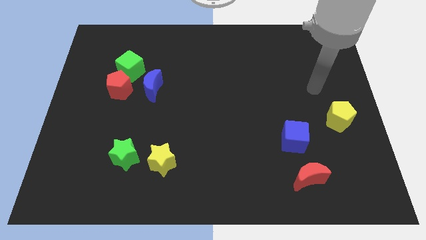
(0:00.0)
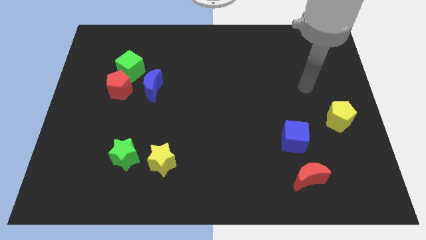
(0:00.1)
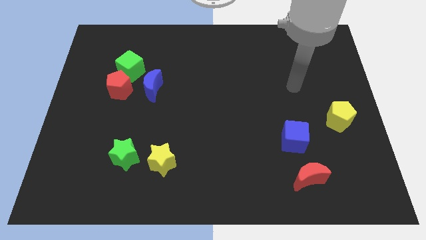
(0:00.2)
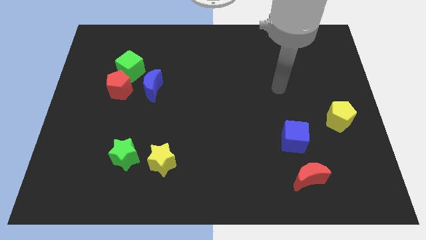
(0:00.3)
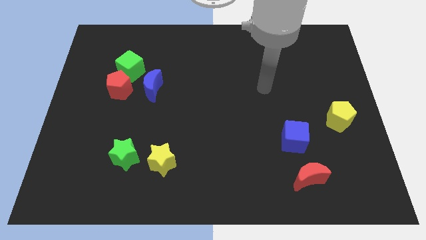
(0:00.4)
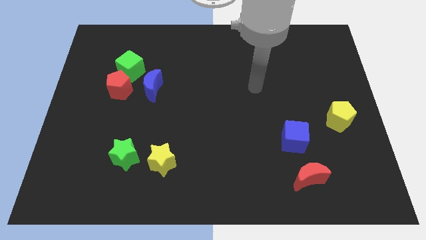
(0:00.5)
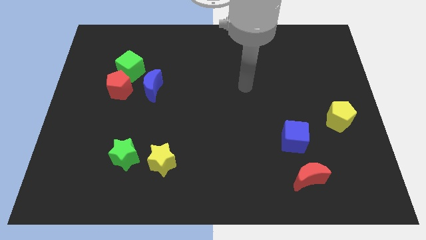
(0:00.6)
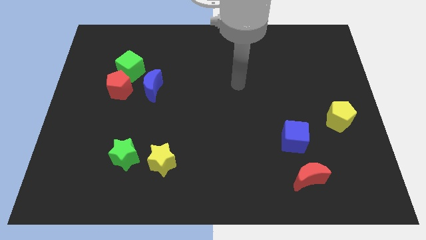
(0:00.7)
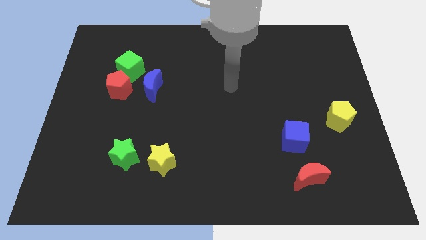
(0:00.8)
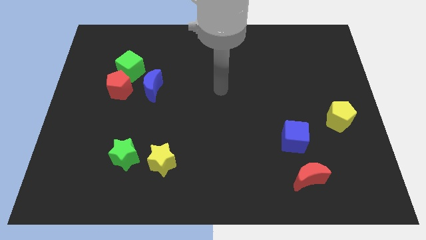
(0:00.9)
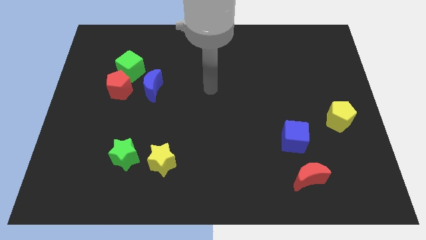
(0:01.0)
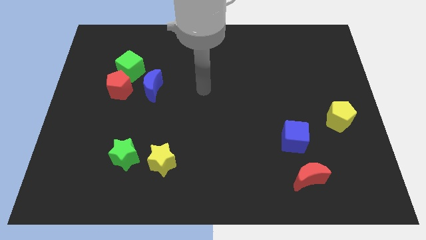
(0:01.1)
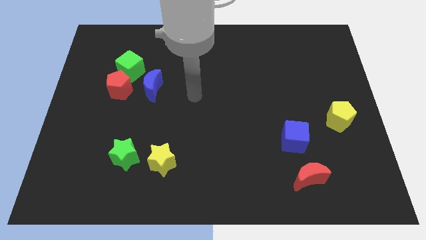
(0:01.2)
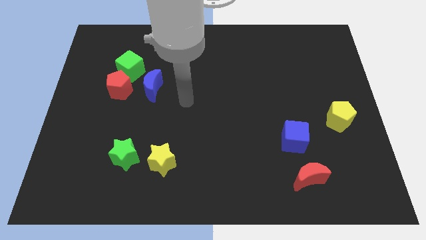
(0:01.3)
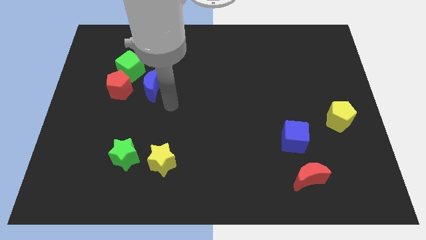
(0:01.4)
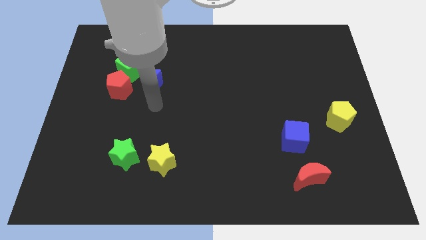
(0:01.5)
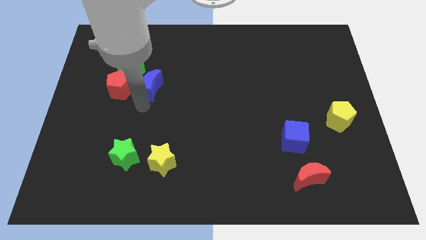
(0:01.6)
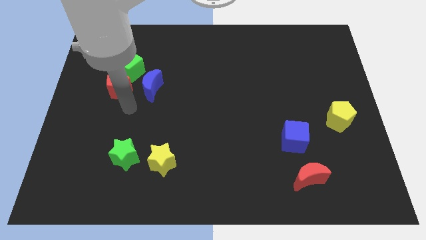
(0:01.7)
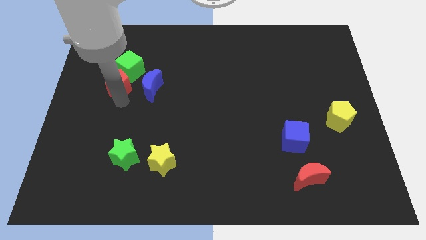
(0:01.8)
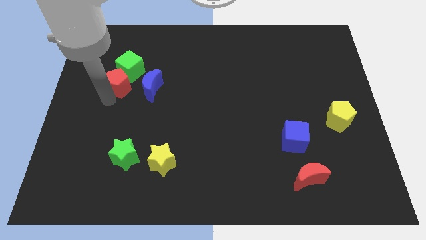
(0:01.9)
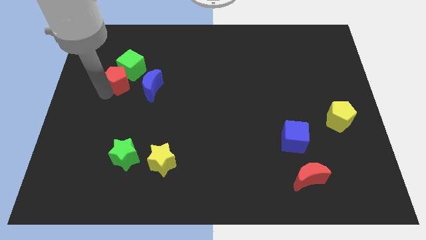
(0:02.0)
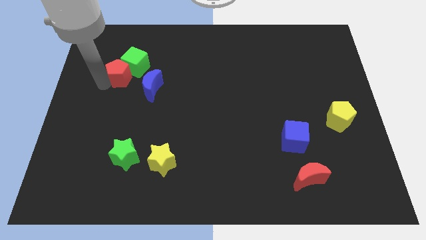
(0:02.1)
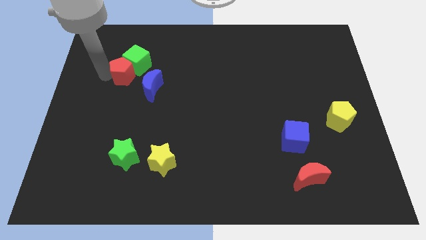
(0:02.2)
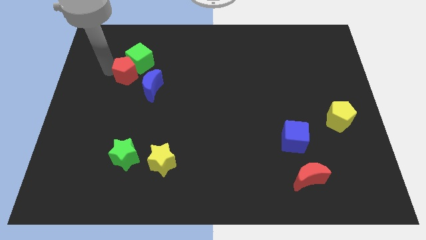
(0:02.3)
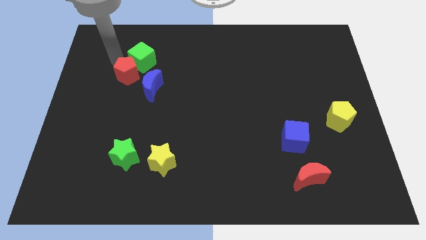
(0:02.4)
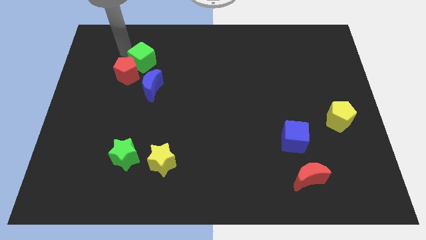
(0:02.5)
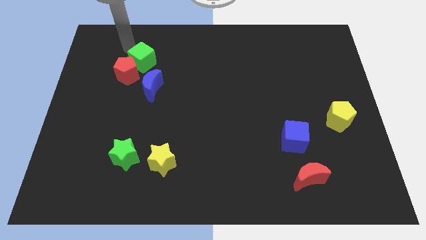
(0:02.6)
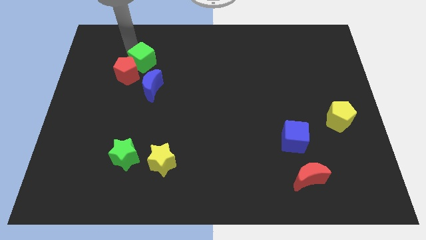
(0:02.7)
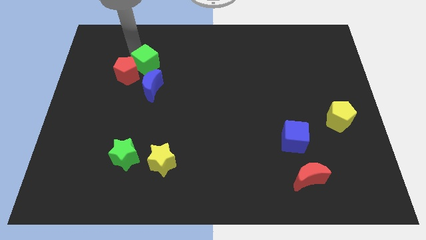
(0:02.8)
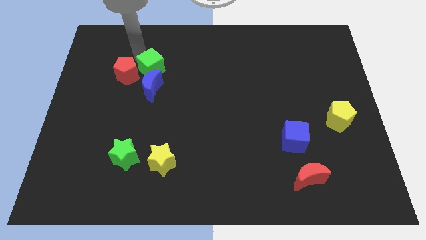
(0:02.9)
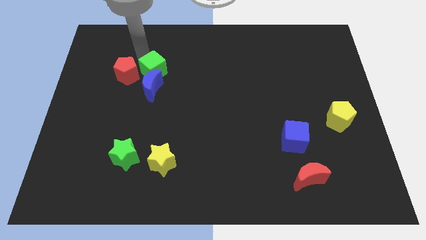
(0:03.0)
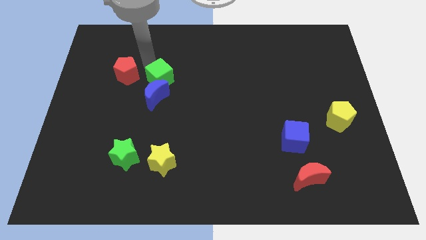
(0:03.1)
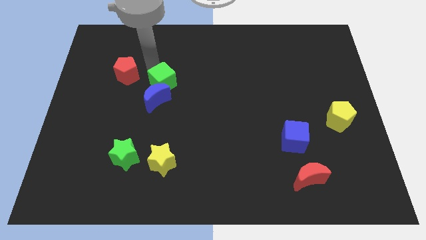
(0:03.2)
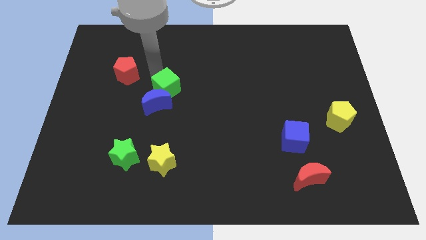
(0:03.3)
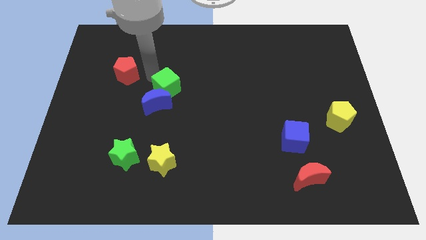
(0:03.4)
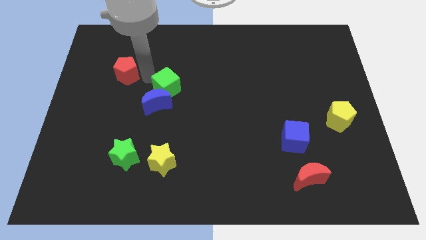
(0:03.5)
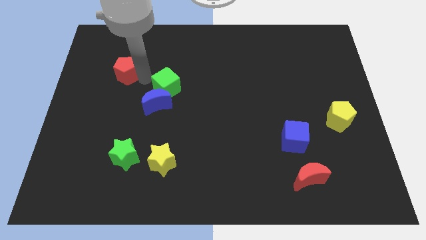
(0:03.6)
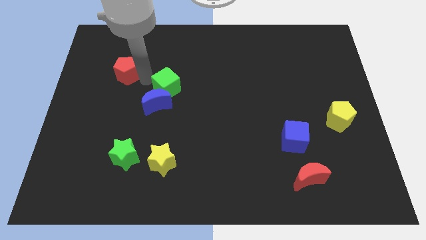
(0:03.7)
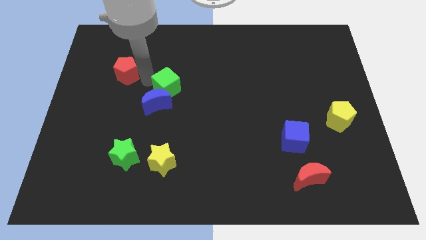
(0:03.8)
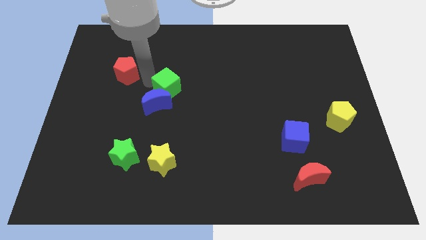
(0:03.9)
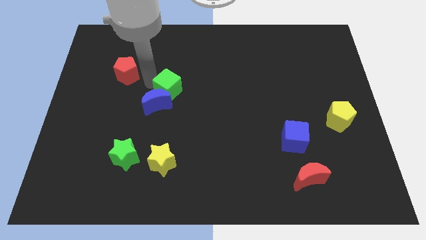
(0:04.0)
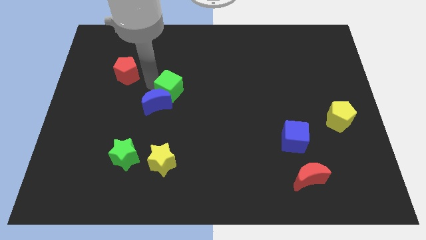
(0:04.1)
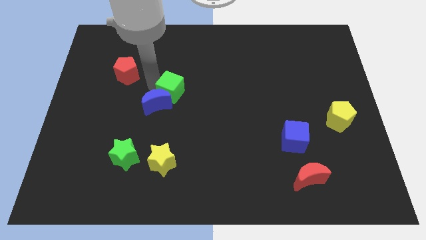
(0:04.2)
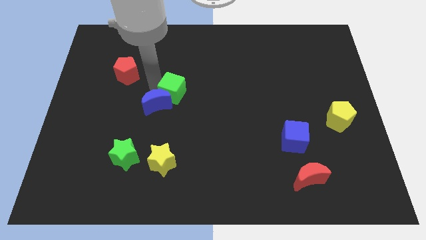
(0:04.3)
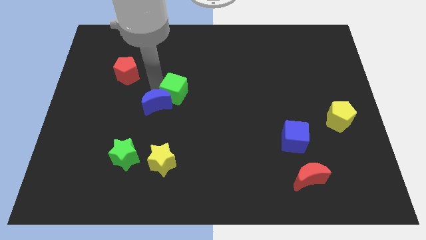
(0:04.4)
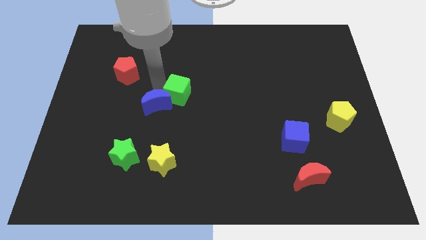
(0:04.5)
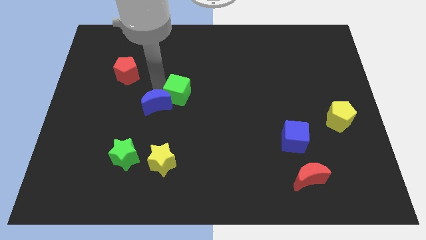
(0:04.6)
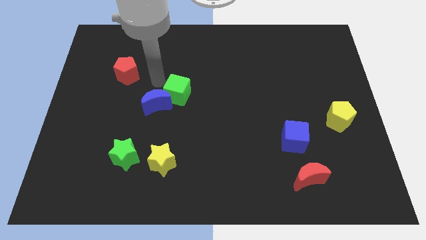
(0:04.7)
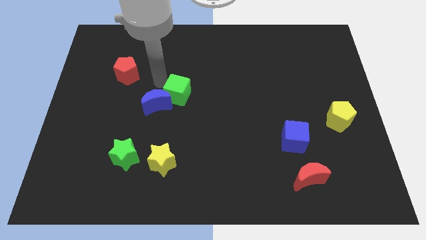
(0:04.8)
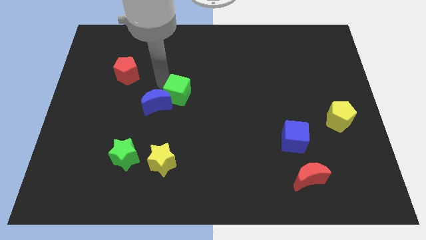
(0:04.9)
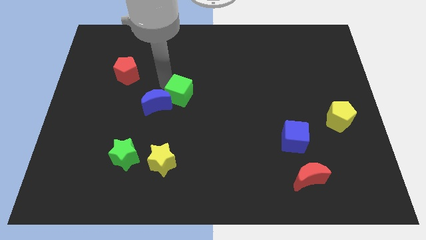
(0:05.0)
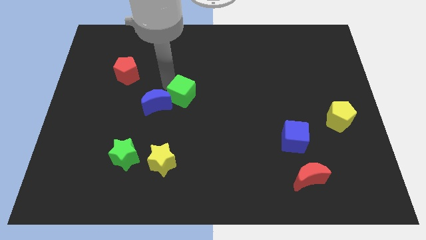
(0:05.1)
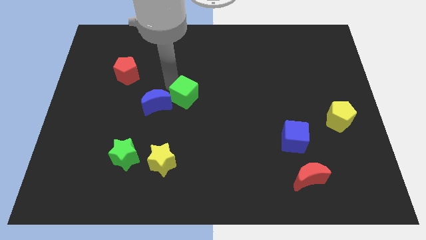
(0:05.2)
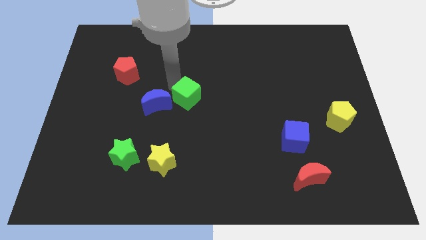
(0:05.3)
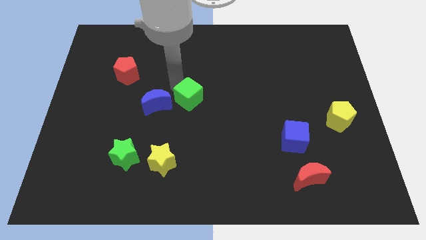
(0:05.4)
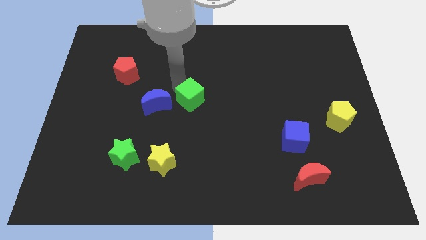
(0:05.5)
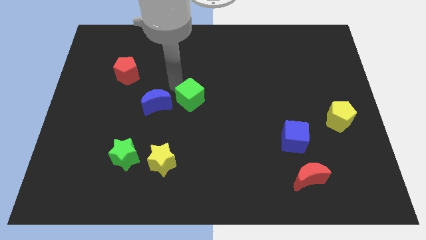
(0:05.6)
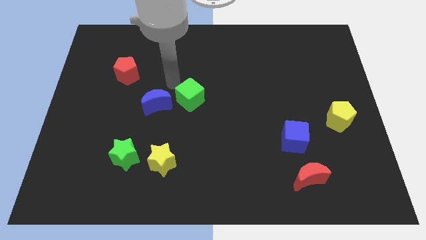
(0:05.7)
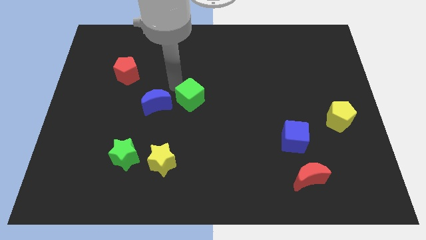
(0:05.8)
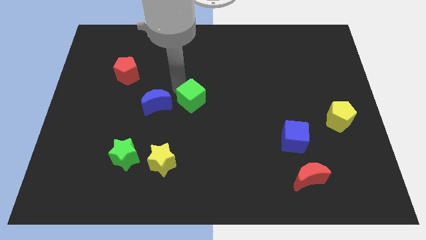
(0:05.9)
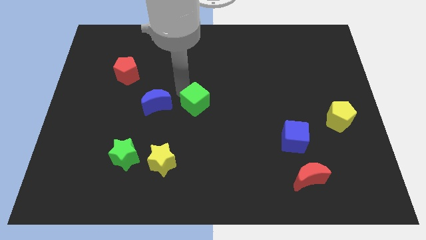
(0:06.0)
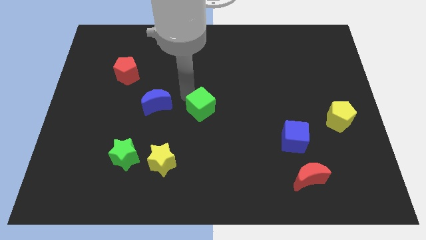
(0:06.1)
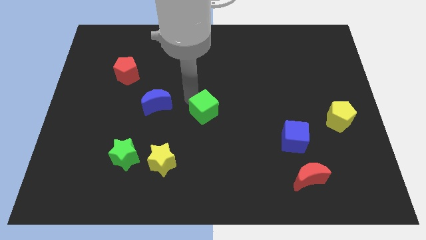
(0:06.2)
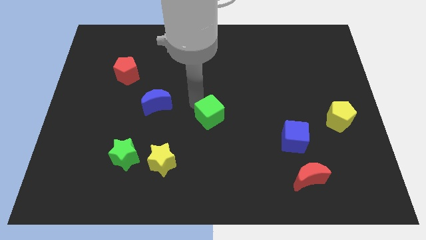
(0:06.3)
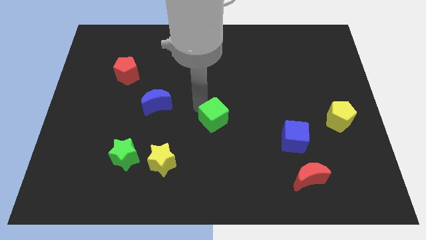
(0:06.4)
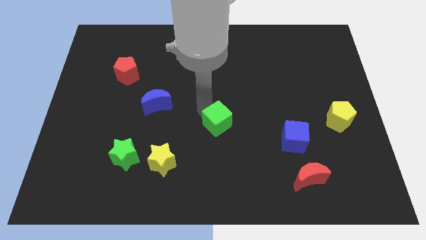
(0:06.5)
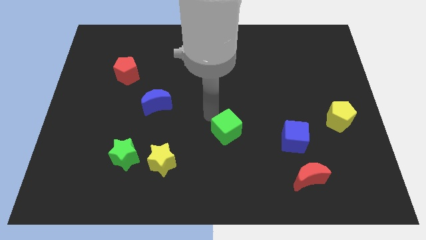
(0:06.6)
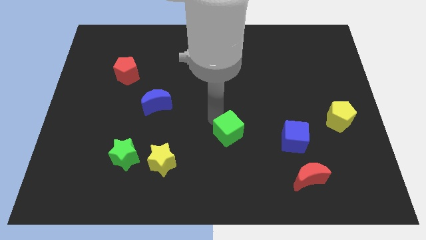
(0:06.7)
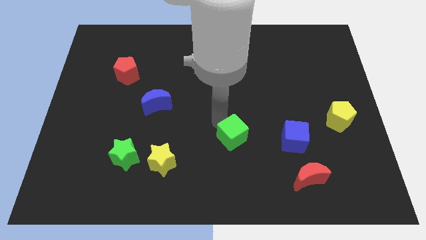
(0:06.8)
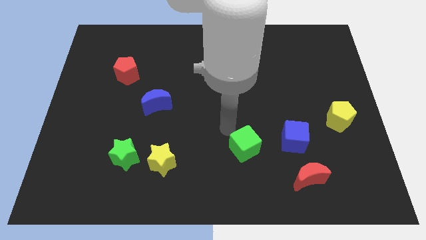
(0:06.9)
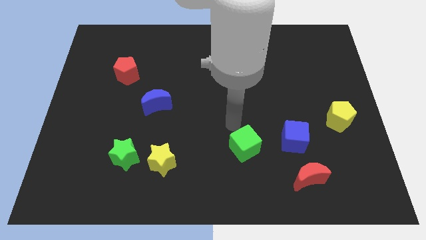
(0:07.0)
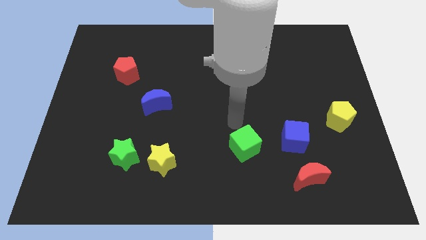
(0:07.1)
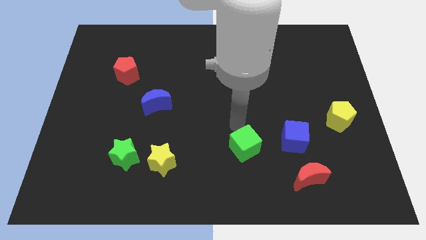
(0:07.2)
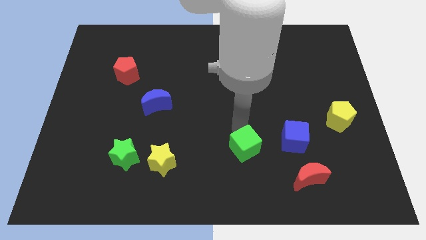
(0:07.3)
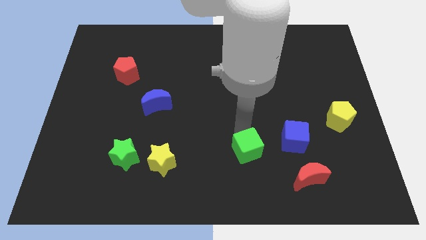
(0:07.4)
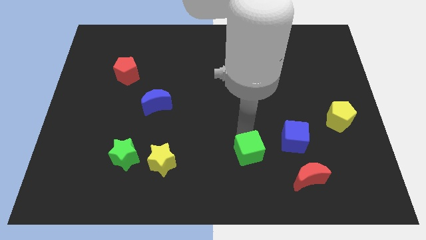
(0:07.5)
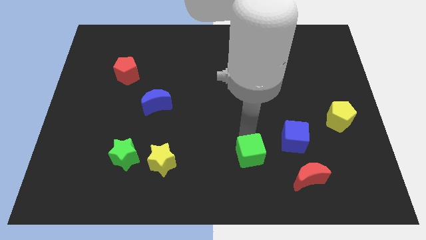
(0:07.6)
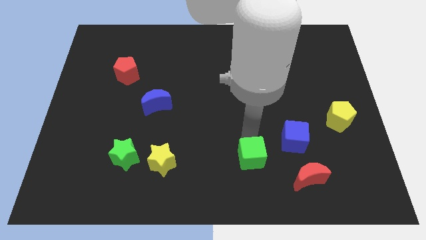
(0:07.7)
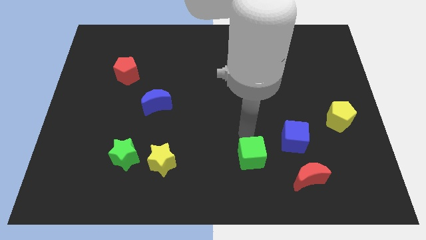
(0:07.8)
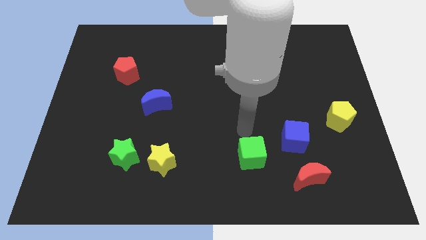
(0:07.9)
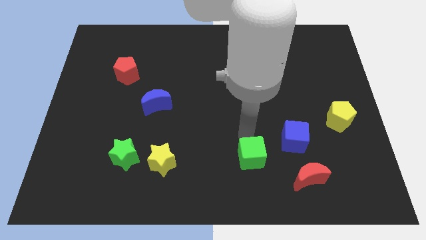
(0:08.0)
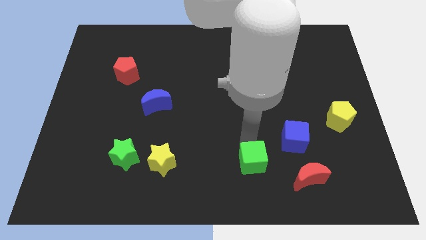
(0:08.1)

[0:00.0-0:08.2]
slide the green cube to the left side of the red moon
